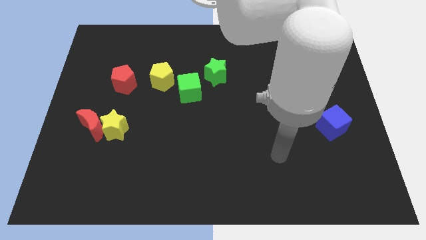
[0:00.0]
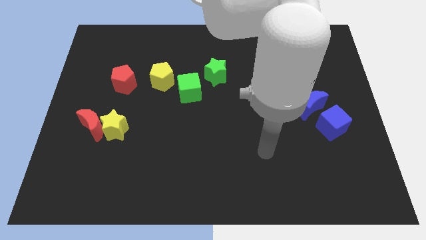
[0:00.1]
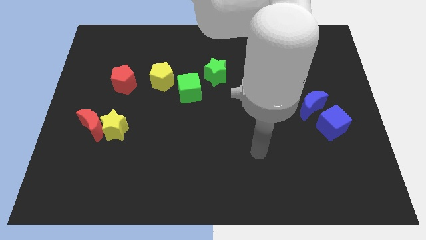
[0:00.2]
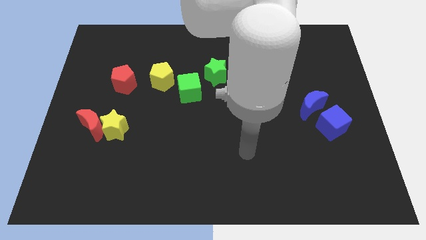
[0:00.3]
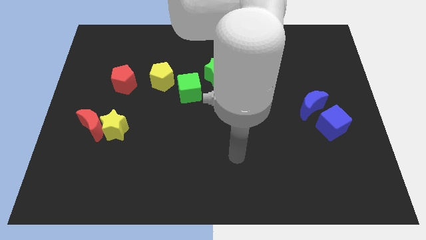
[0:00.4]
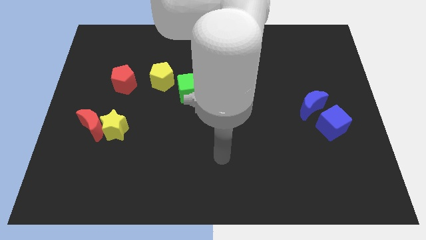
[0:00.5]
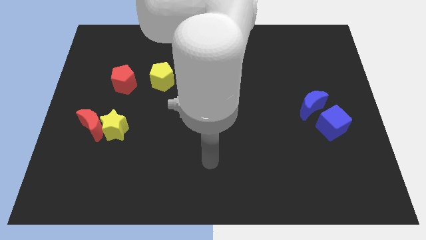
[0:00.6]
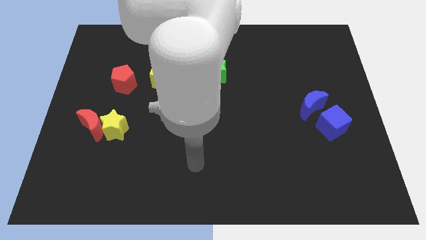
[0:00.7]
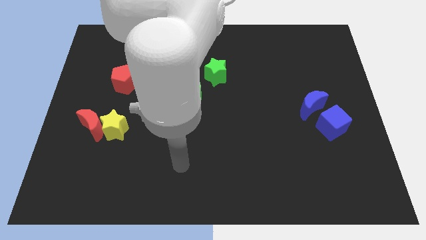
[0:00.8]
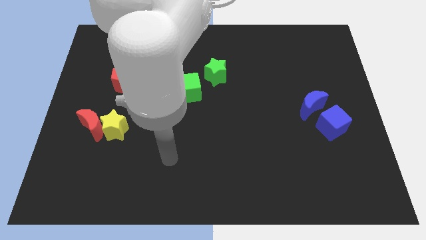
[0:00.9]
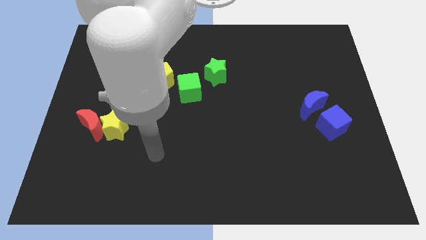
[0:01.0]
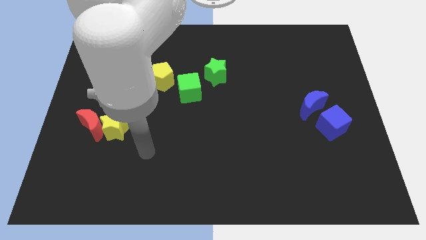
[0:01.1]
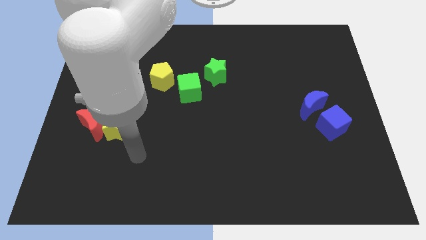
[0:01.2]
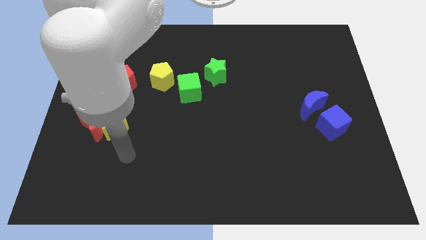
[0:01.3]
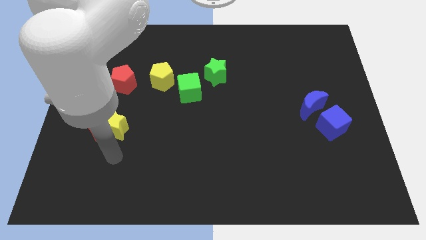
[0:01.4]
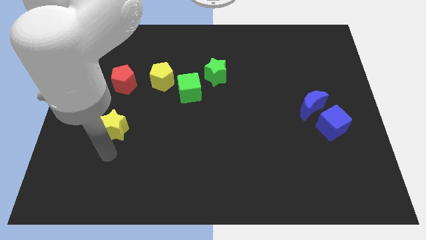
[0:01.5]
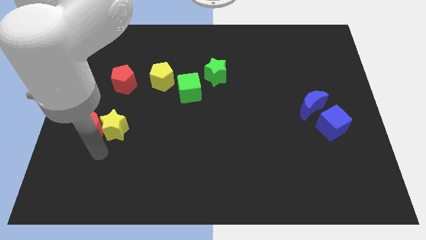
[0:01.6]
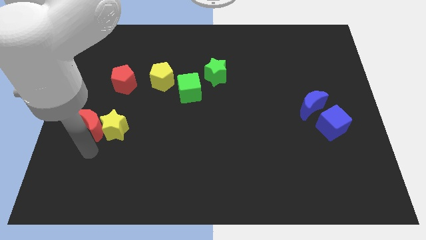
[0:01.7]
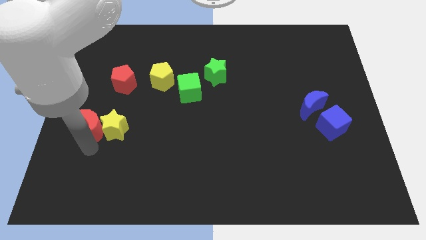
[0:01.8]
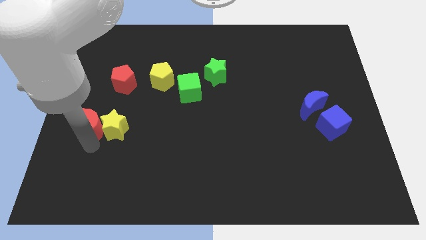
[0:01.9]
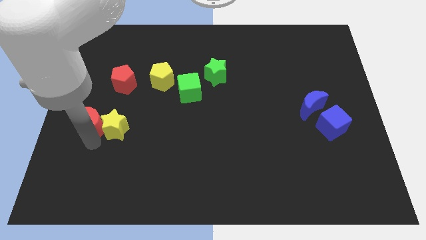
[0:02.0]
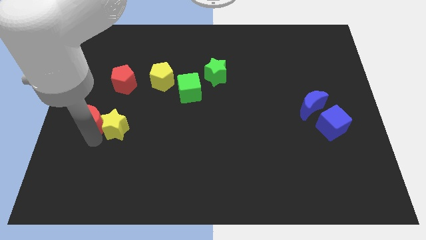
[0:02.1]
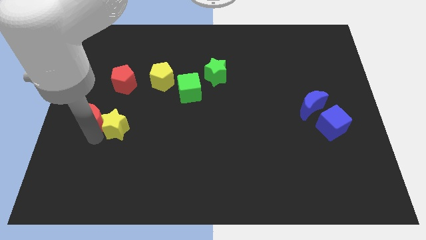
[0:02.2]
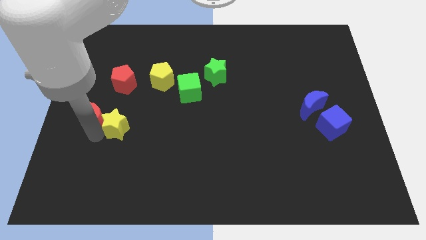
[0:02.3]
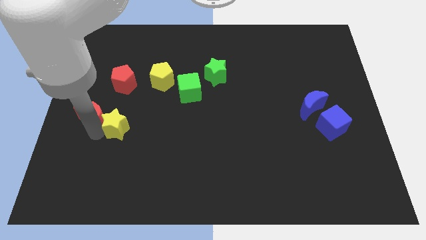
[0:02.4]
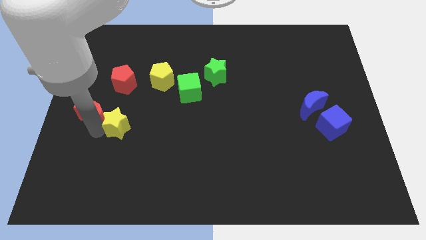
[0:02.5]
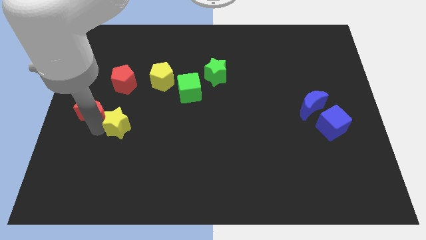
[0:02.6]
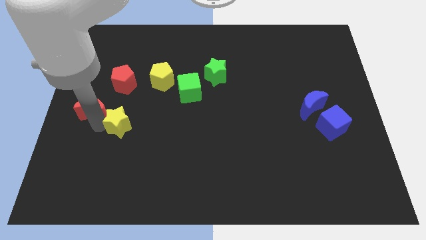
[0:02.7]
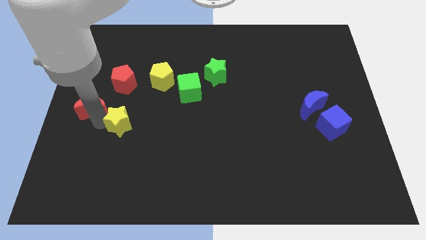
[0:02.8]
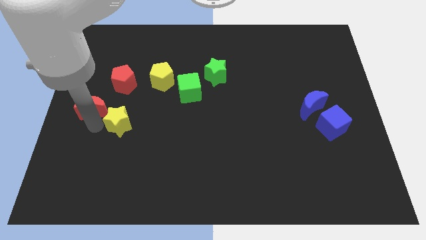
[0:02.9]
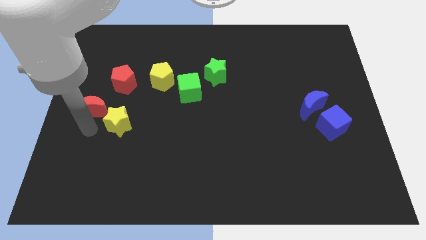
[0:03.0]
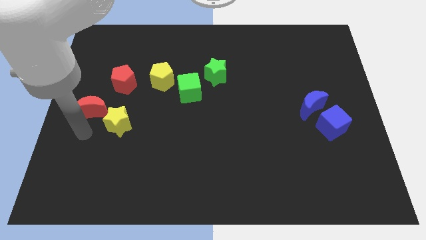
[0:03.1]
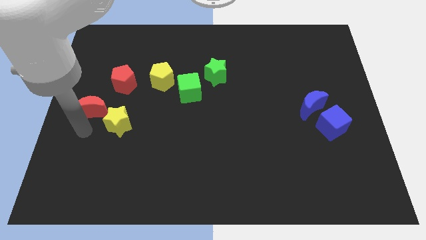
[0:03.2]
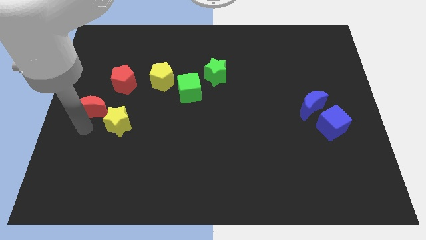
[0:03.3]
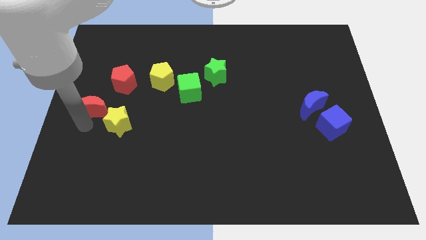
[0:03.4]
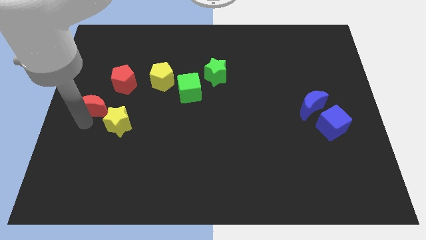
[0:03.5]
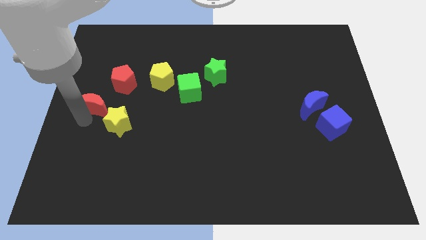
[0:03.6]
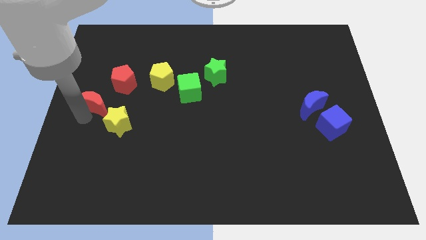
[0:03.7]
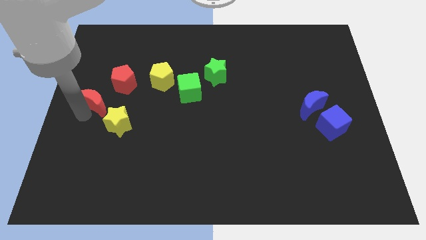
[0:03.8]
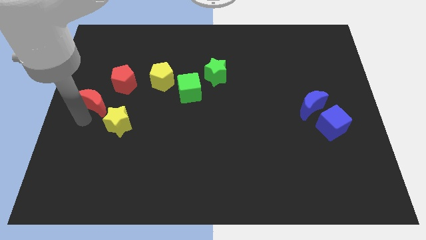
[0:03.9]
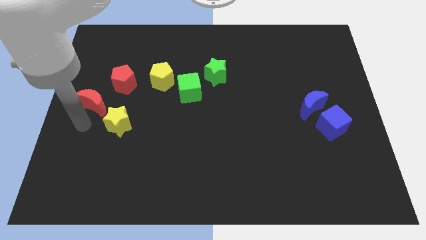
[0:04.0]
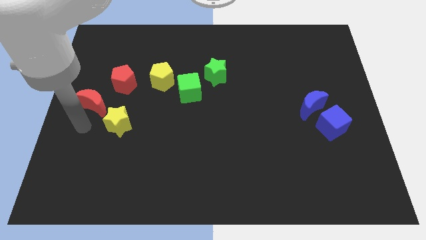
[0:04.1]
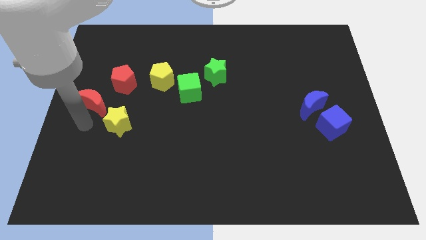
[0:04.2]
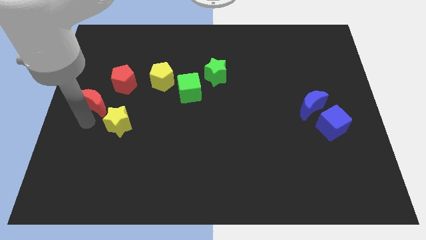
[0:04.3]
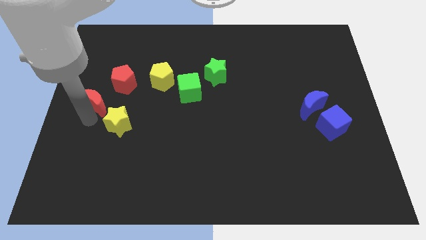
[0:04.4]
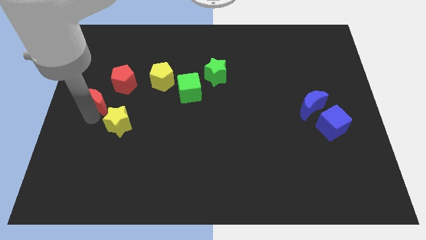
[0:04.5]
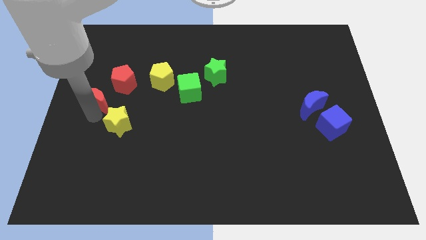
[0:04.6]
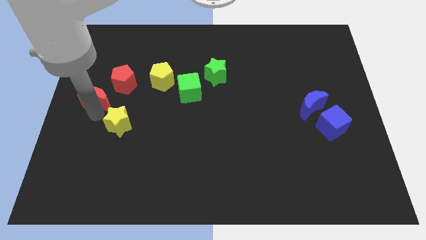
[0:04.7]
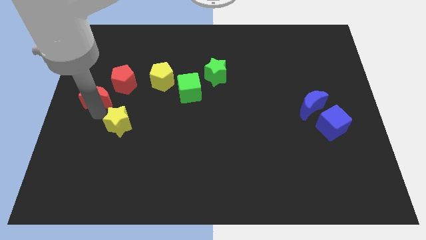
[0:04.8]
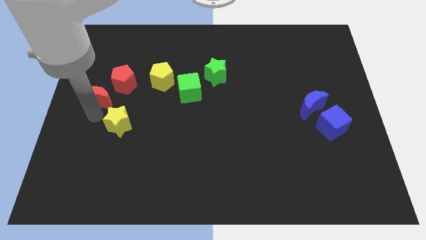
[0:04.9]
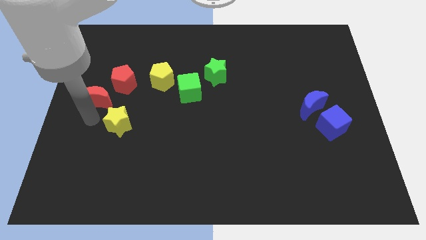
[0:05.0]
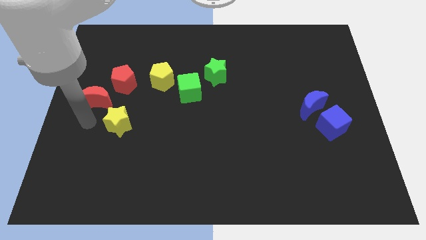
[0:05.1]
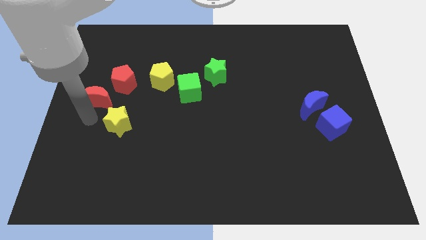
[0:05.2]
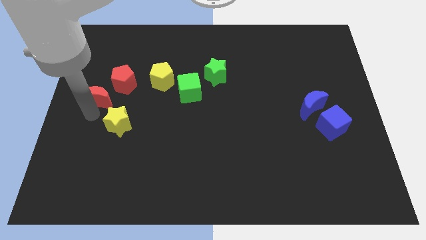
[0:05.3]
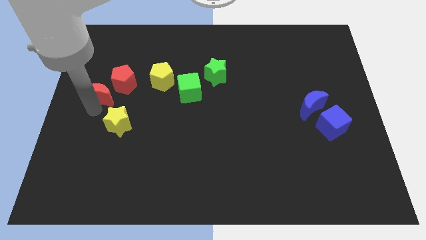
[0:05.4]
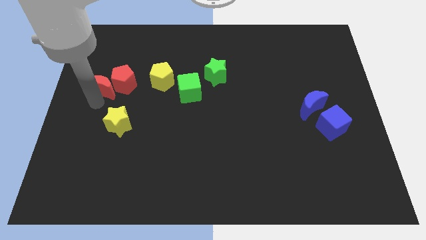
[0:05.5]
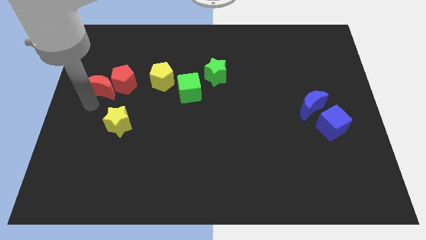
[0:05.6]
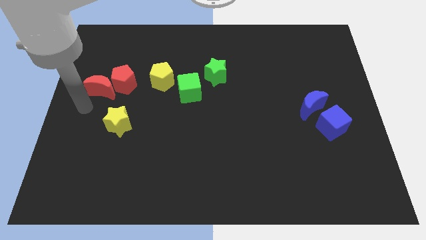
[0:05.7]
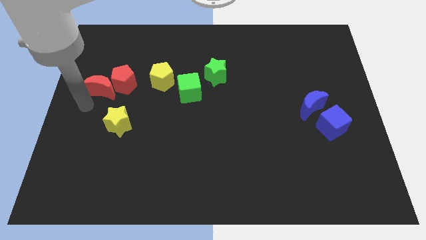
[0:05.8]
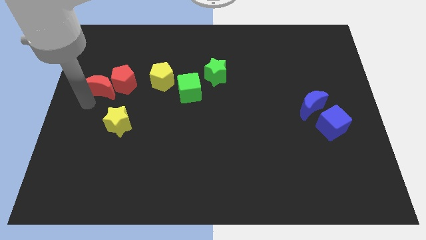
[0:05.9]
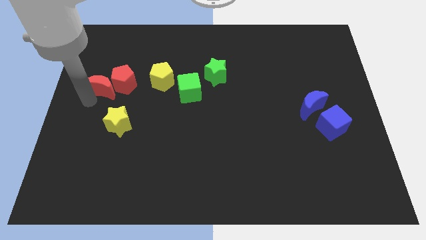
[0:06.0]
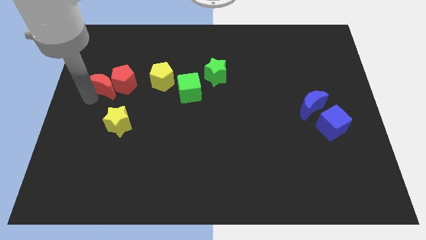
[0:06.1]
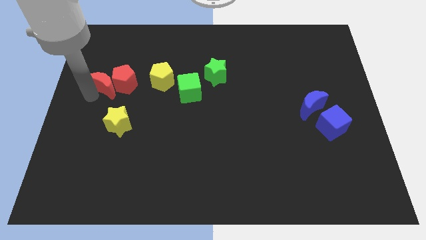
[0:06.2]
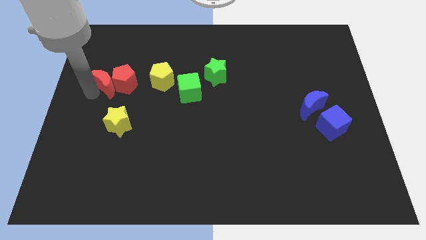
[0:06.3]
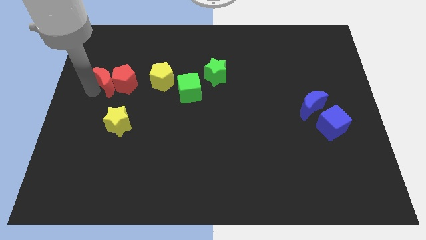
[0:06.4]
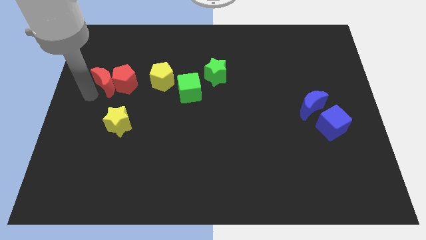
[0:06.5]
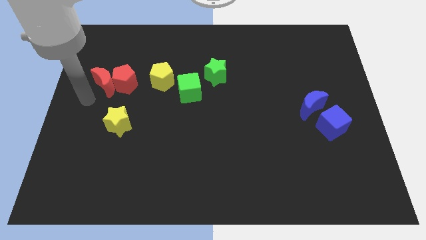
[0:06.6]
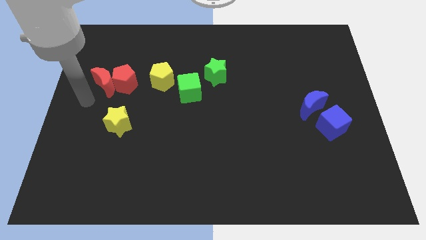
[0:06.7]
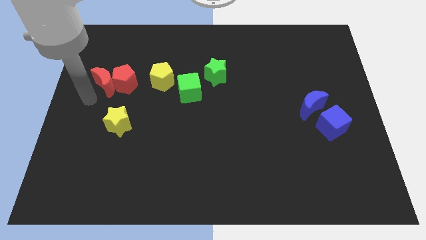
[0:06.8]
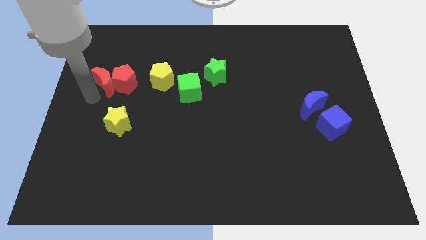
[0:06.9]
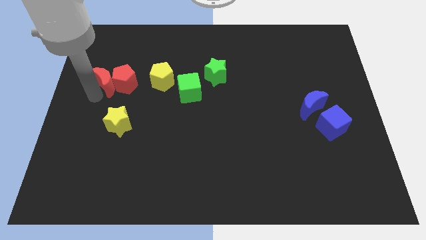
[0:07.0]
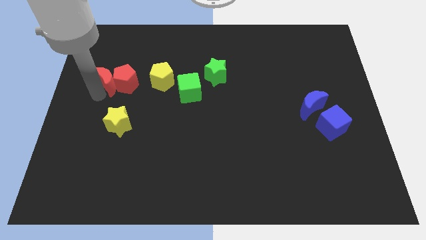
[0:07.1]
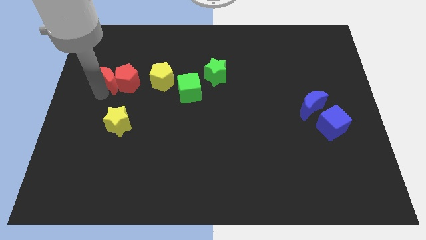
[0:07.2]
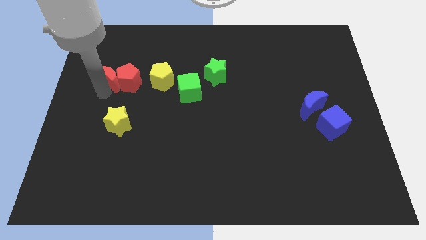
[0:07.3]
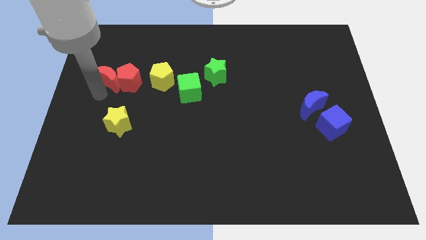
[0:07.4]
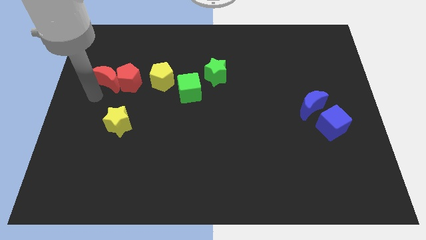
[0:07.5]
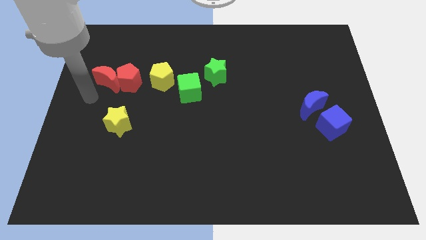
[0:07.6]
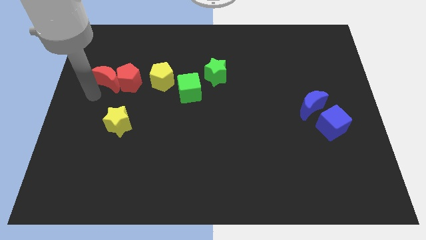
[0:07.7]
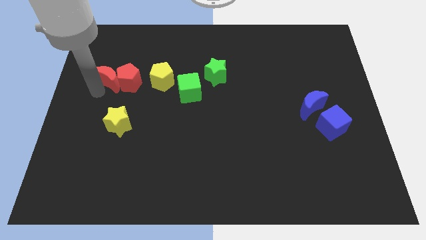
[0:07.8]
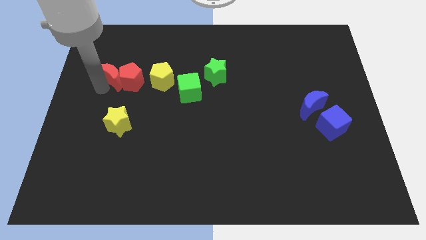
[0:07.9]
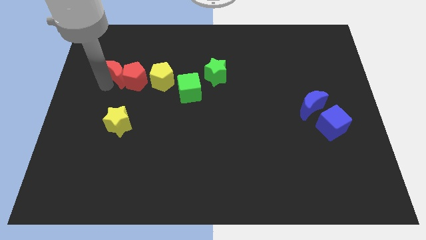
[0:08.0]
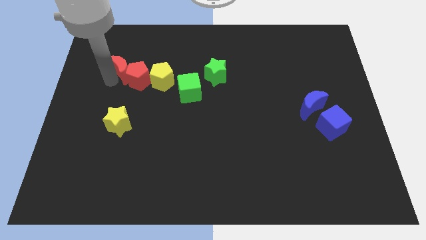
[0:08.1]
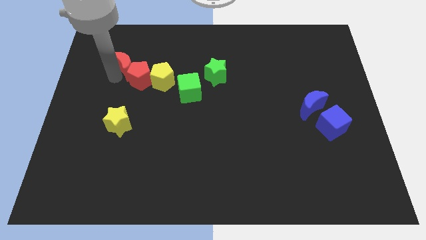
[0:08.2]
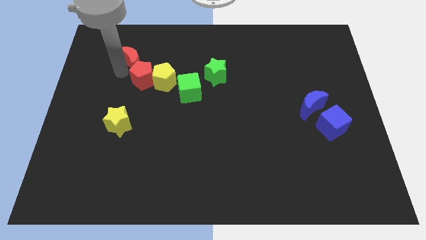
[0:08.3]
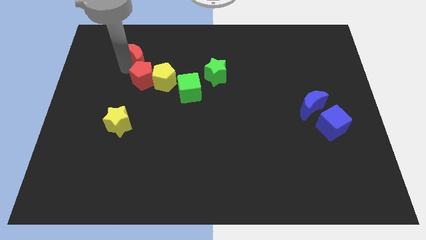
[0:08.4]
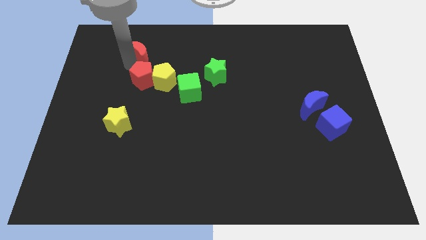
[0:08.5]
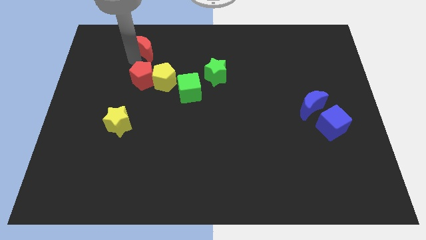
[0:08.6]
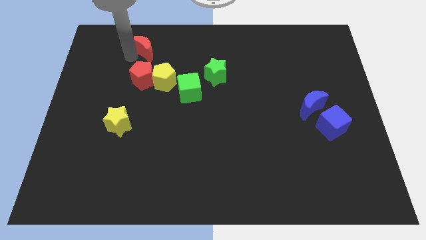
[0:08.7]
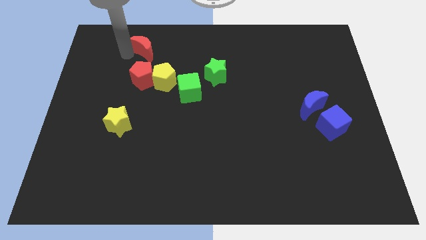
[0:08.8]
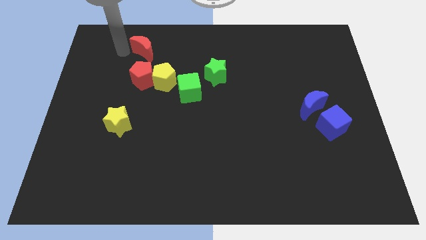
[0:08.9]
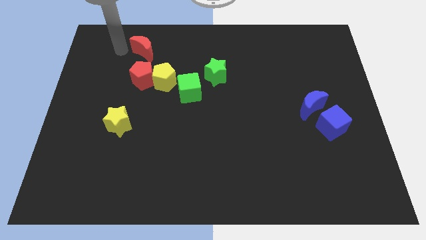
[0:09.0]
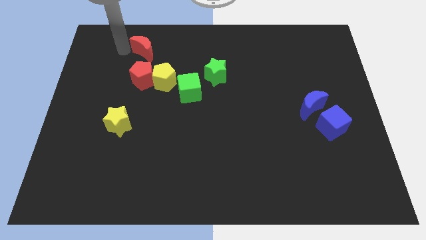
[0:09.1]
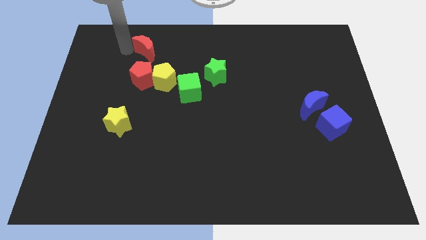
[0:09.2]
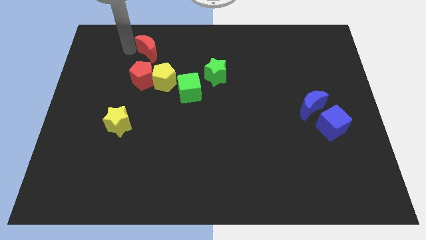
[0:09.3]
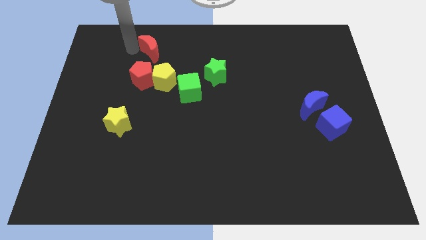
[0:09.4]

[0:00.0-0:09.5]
slide the red moon up and to the right diagonally
